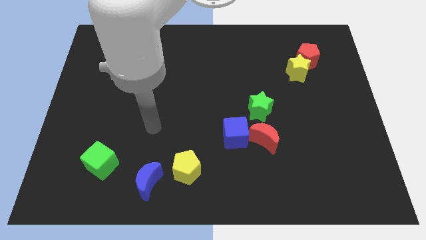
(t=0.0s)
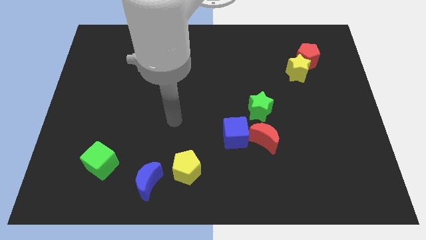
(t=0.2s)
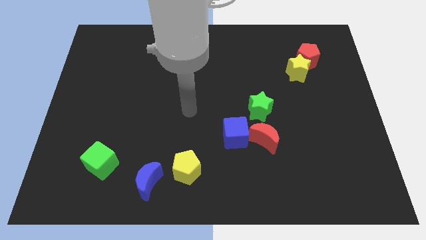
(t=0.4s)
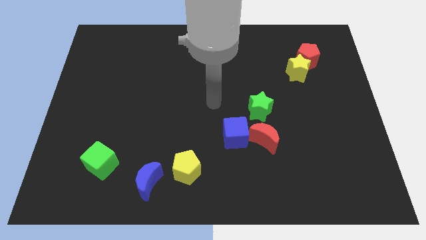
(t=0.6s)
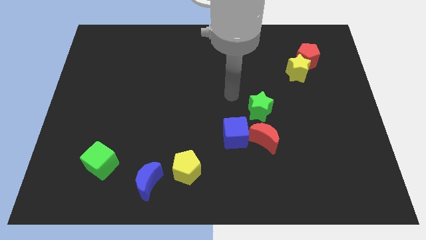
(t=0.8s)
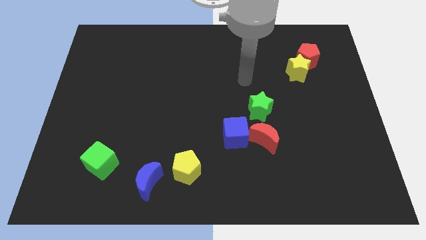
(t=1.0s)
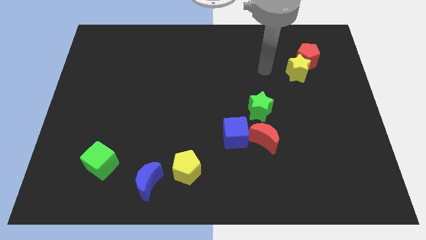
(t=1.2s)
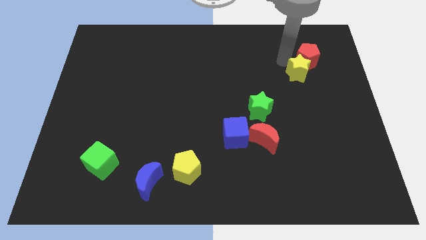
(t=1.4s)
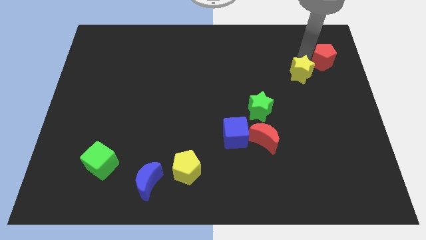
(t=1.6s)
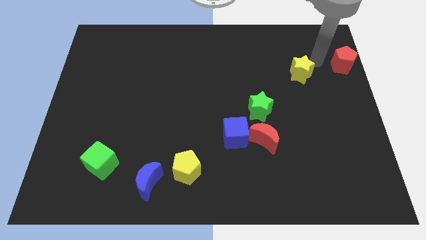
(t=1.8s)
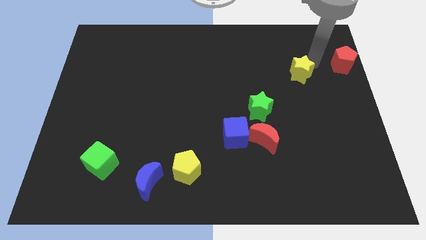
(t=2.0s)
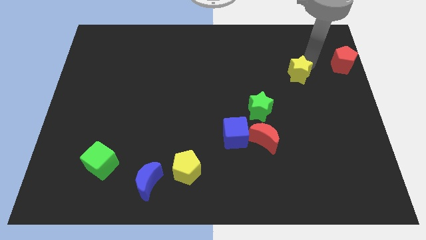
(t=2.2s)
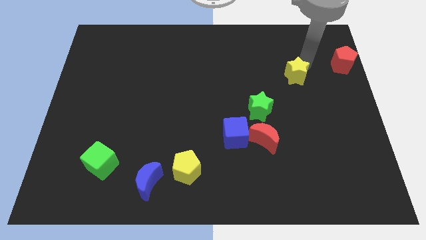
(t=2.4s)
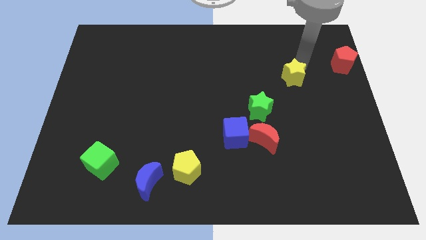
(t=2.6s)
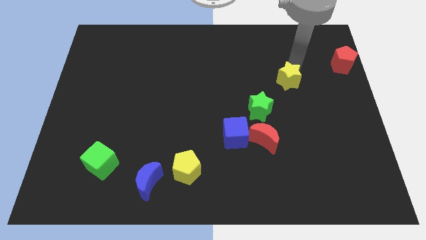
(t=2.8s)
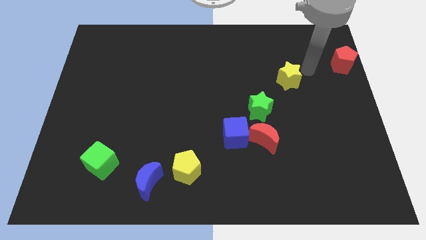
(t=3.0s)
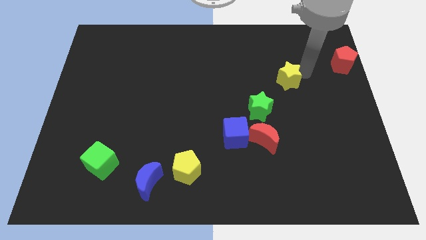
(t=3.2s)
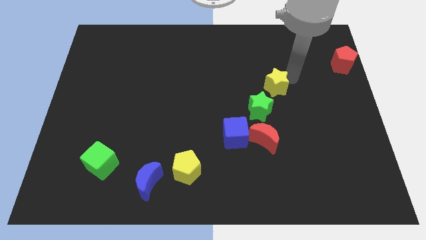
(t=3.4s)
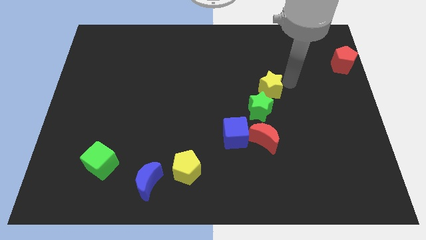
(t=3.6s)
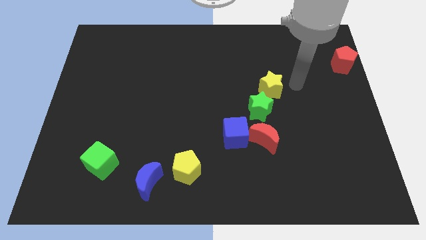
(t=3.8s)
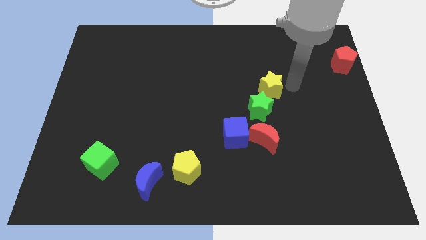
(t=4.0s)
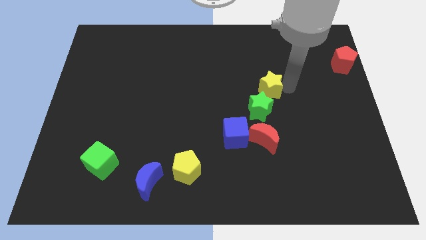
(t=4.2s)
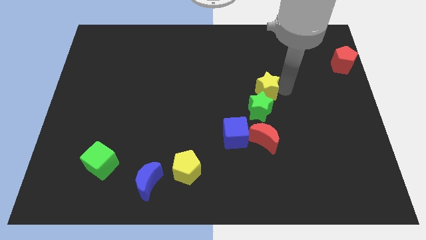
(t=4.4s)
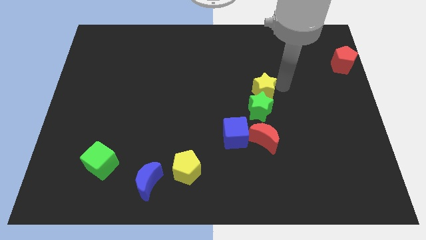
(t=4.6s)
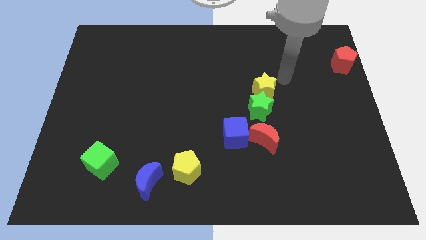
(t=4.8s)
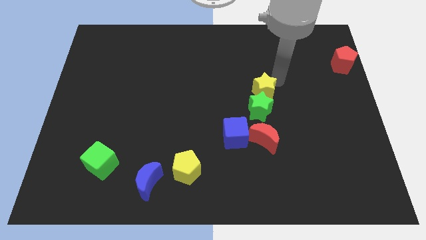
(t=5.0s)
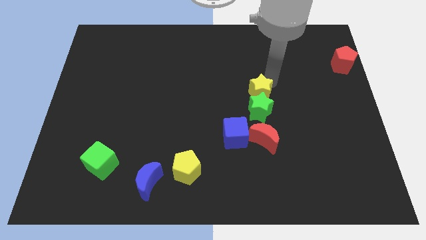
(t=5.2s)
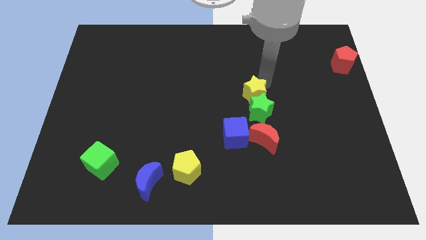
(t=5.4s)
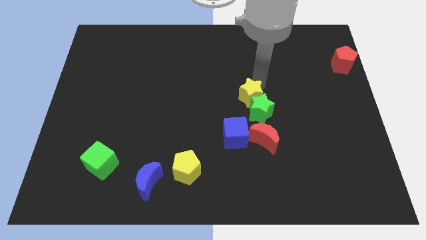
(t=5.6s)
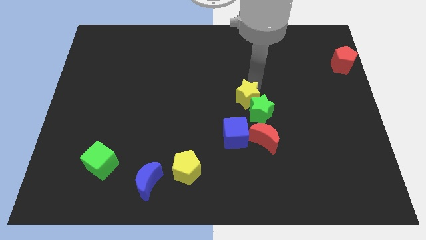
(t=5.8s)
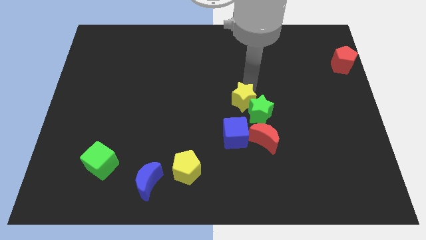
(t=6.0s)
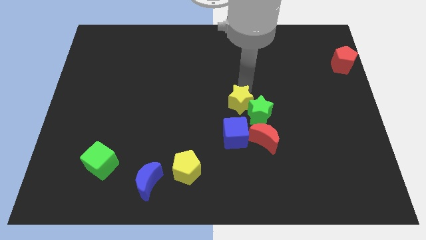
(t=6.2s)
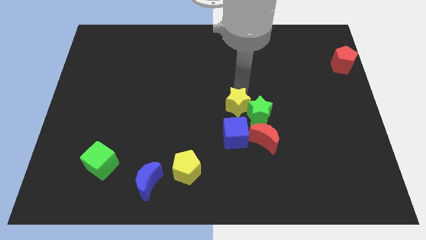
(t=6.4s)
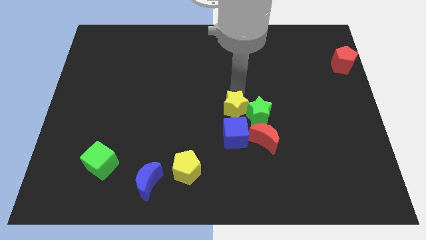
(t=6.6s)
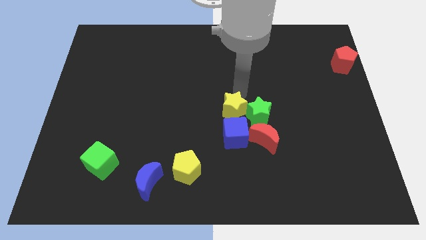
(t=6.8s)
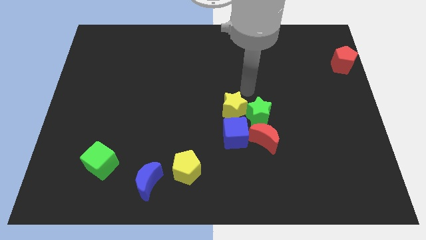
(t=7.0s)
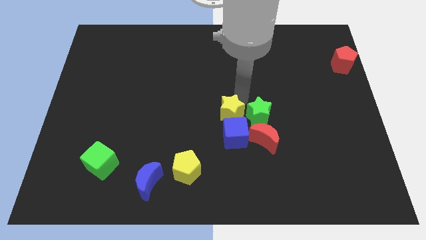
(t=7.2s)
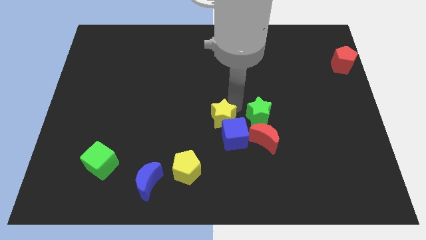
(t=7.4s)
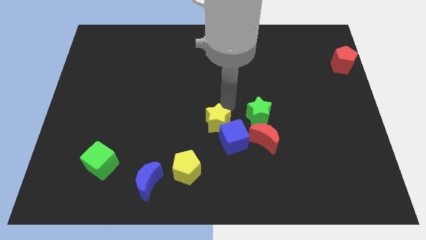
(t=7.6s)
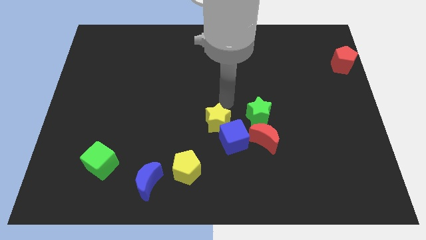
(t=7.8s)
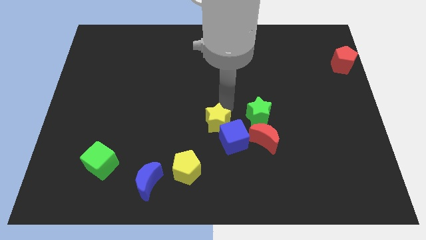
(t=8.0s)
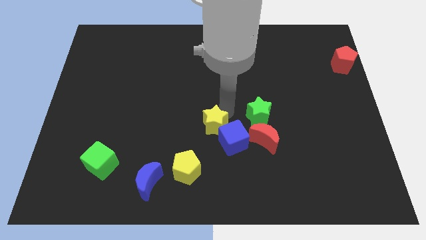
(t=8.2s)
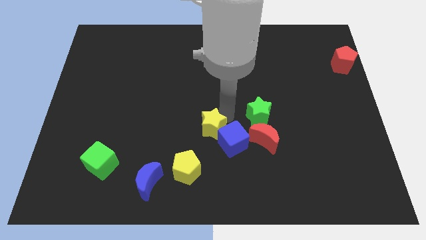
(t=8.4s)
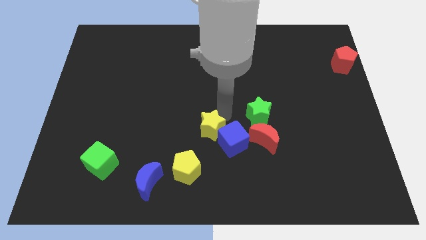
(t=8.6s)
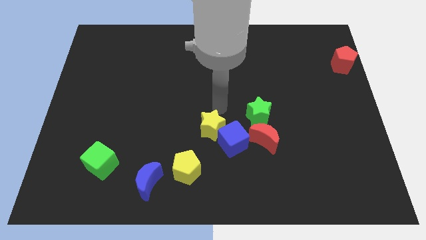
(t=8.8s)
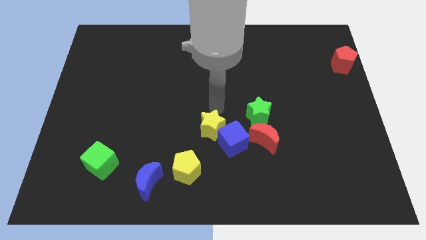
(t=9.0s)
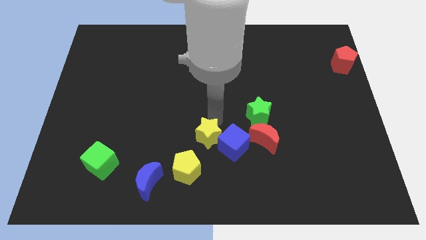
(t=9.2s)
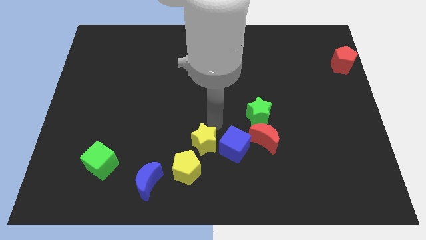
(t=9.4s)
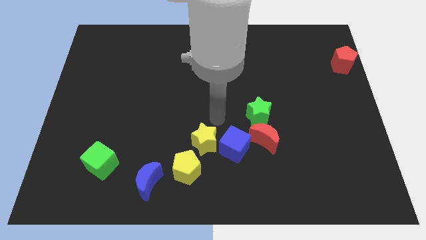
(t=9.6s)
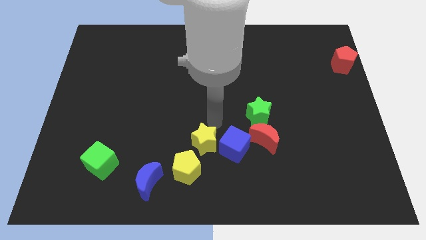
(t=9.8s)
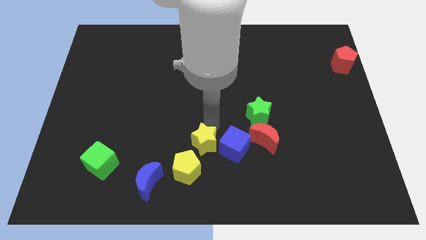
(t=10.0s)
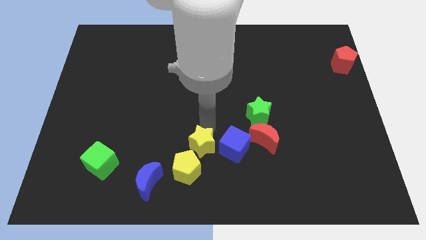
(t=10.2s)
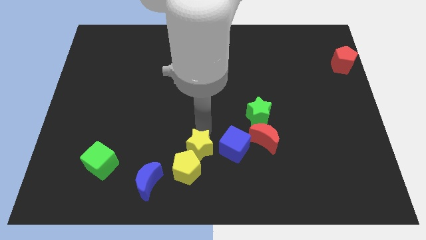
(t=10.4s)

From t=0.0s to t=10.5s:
push the yellow star towards the yellow pentagon

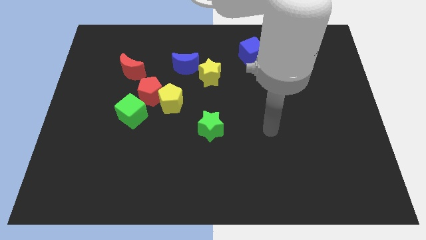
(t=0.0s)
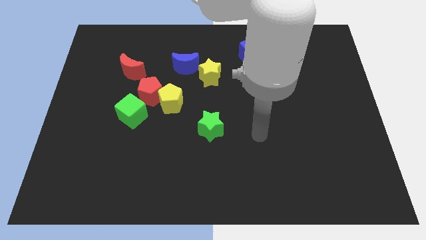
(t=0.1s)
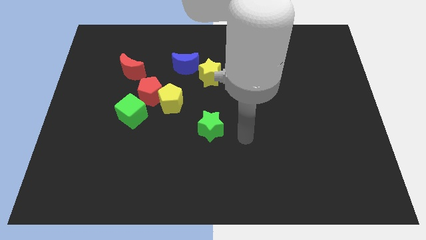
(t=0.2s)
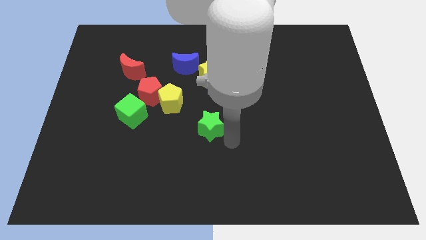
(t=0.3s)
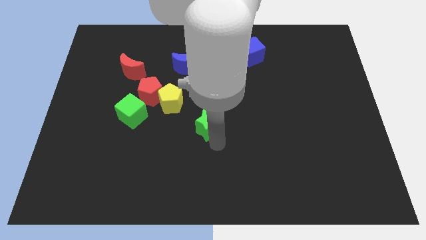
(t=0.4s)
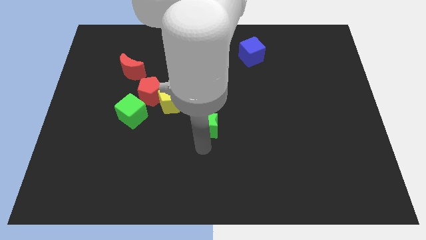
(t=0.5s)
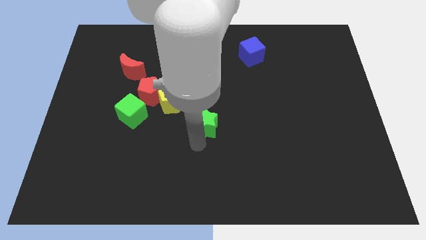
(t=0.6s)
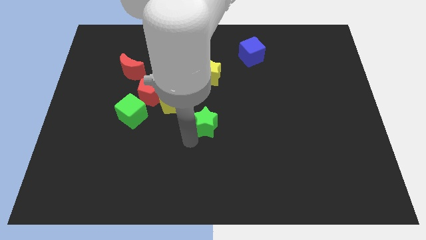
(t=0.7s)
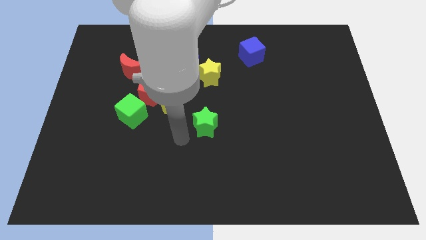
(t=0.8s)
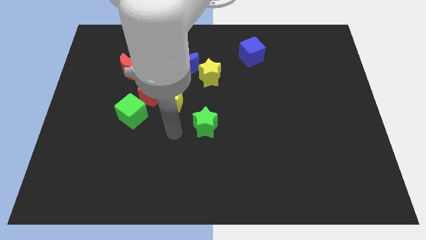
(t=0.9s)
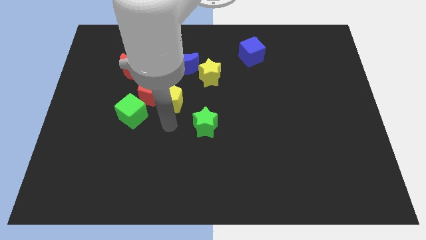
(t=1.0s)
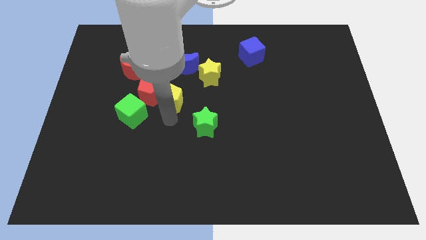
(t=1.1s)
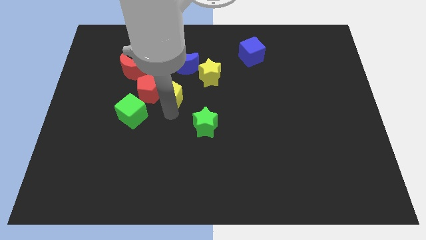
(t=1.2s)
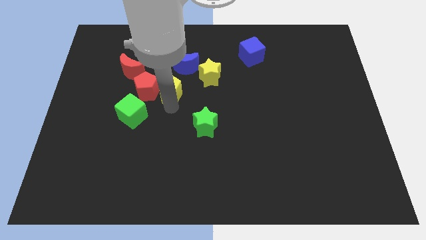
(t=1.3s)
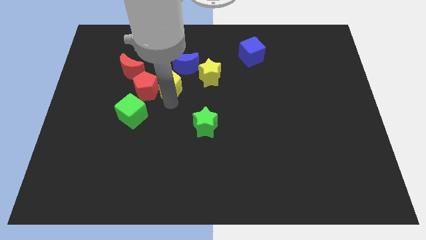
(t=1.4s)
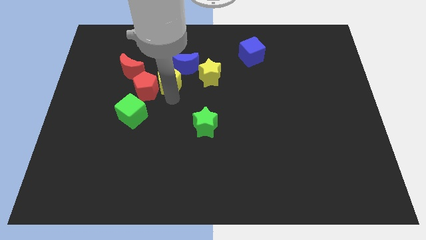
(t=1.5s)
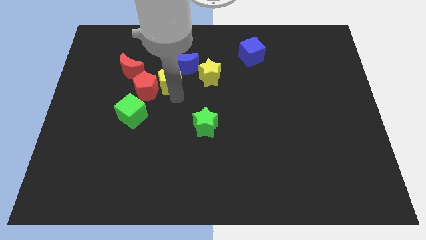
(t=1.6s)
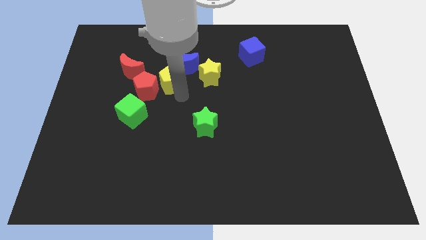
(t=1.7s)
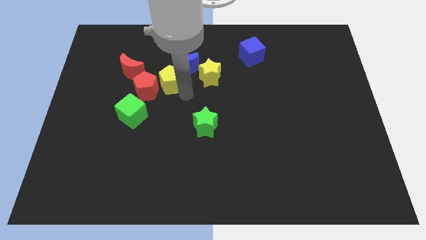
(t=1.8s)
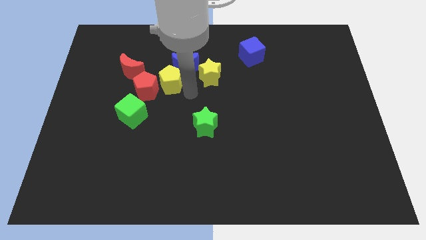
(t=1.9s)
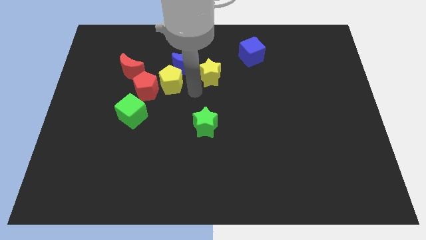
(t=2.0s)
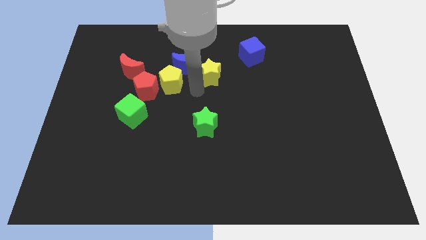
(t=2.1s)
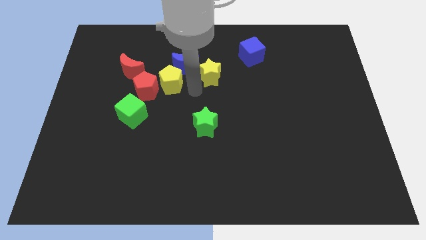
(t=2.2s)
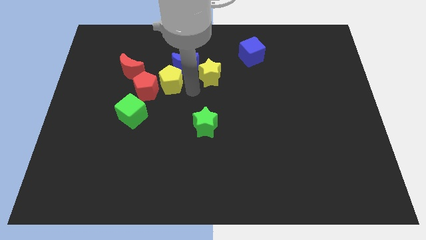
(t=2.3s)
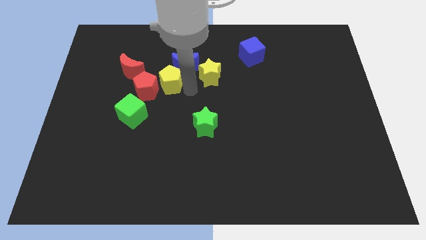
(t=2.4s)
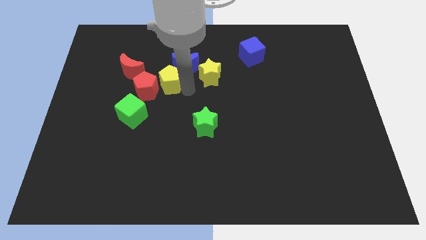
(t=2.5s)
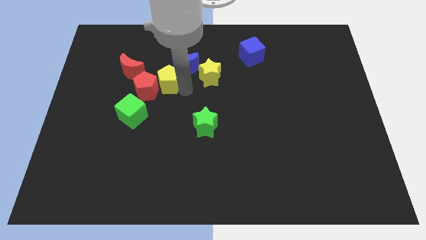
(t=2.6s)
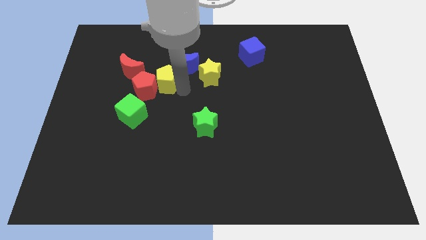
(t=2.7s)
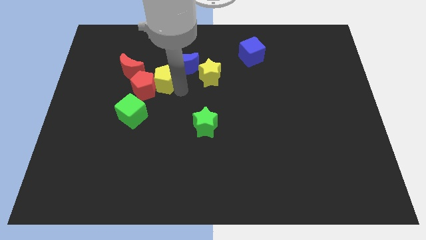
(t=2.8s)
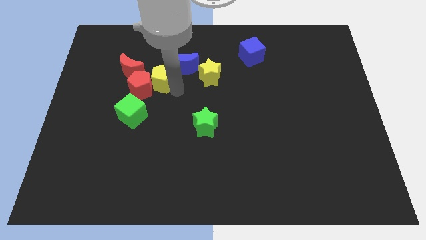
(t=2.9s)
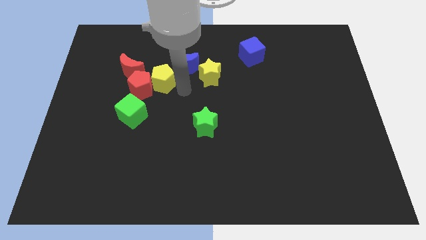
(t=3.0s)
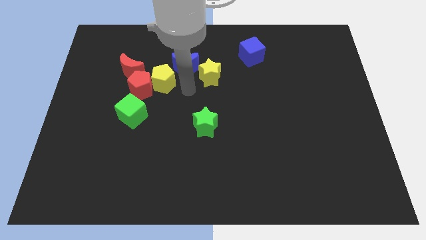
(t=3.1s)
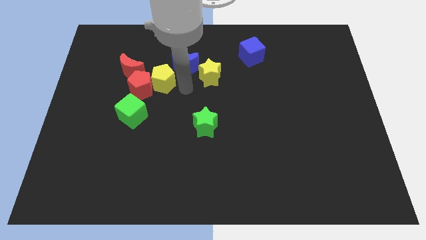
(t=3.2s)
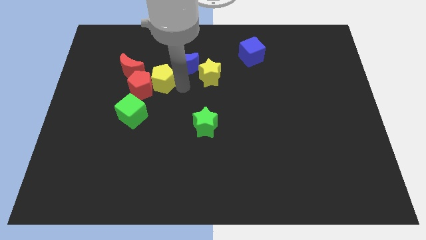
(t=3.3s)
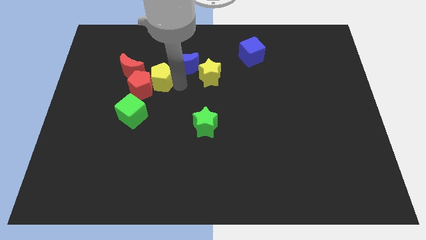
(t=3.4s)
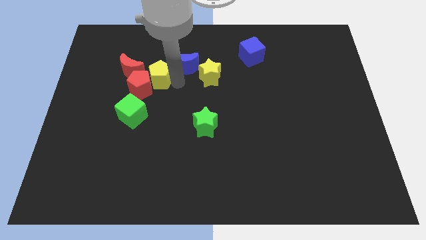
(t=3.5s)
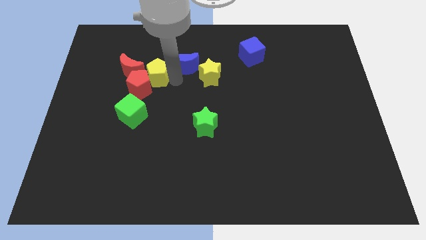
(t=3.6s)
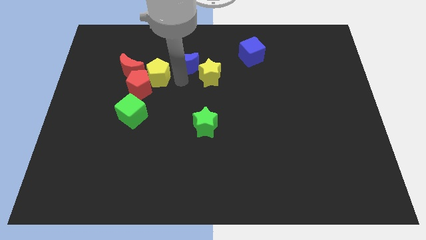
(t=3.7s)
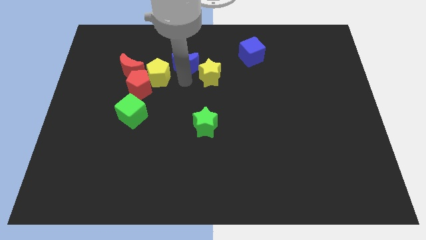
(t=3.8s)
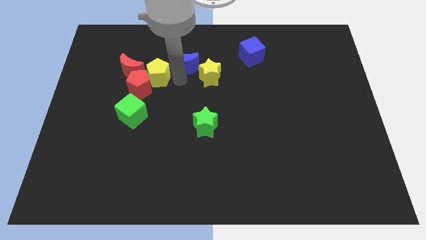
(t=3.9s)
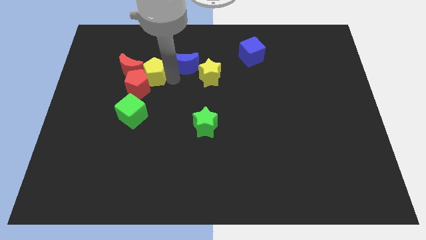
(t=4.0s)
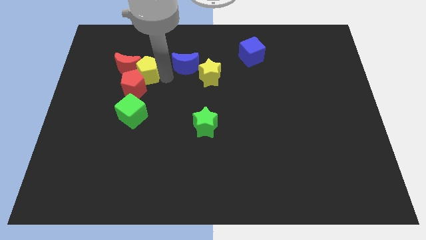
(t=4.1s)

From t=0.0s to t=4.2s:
slide the yellow pentagon to the red moon
